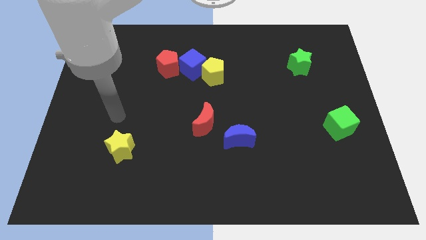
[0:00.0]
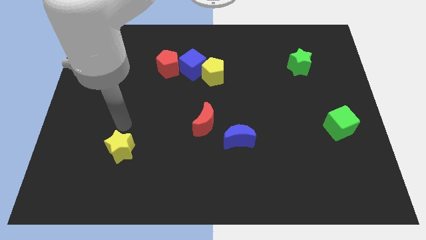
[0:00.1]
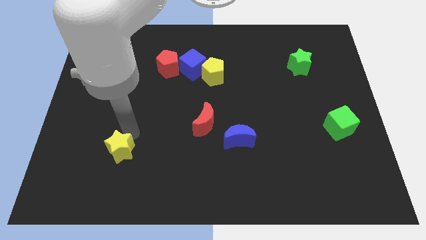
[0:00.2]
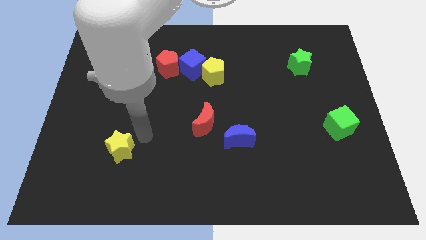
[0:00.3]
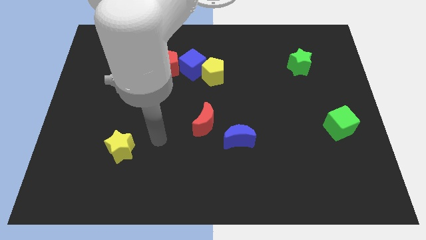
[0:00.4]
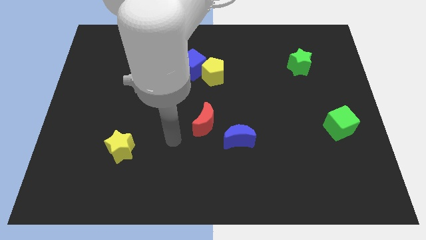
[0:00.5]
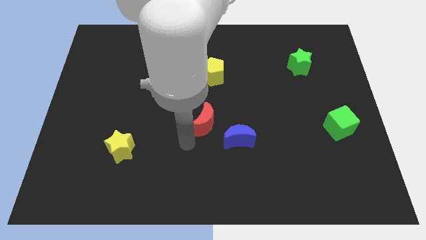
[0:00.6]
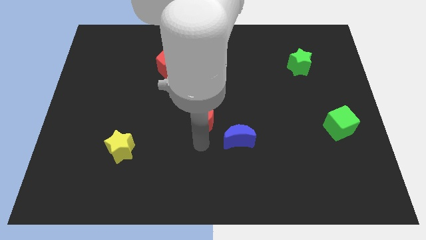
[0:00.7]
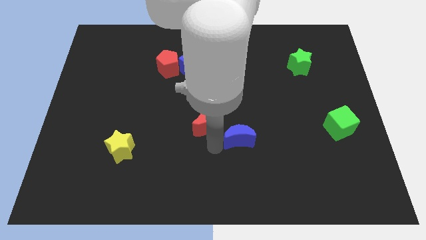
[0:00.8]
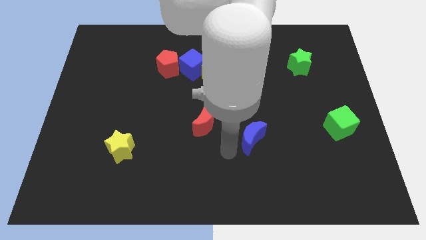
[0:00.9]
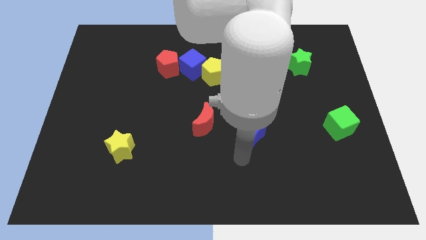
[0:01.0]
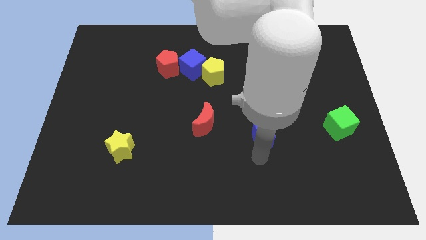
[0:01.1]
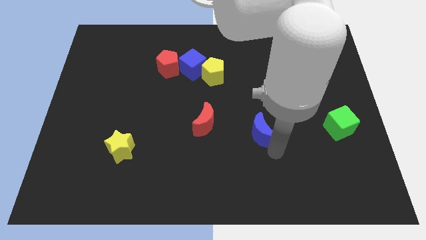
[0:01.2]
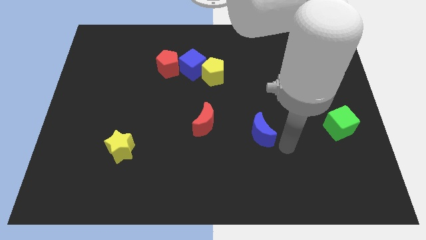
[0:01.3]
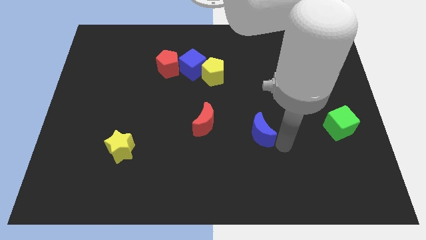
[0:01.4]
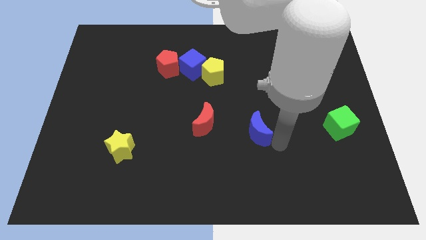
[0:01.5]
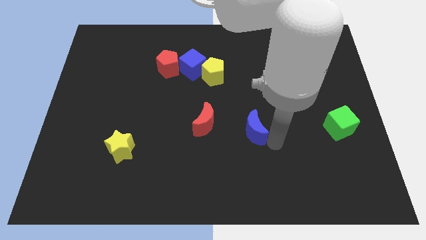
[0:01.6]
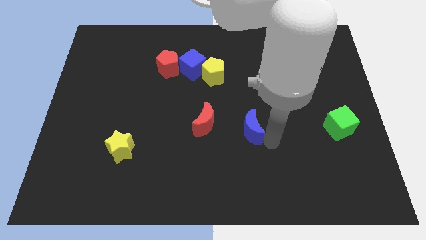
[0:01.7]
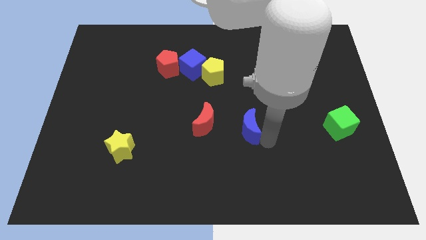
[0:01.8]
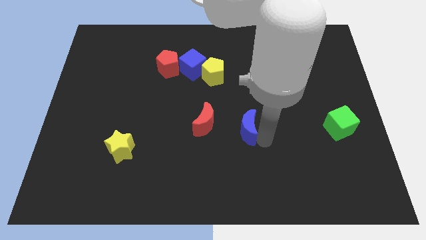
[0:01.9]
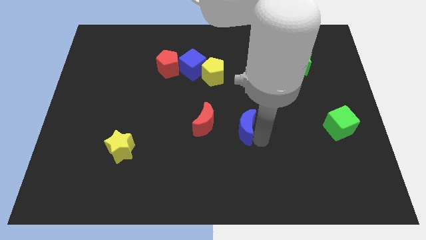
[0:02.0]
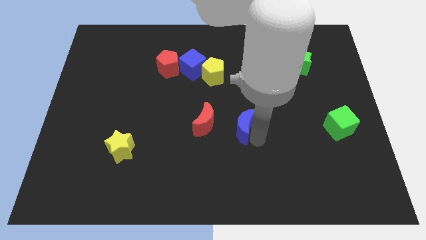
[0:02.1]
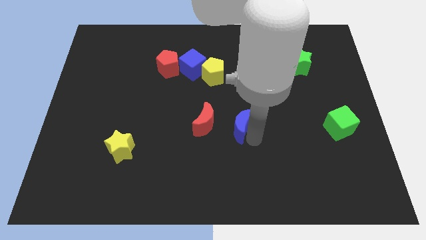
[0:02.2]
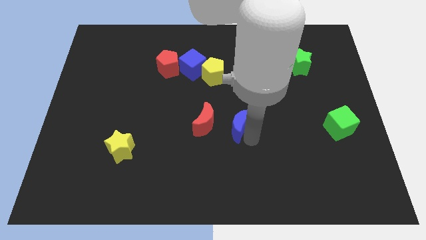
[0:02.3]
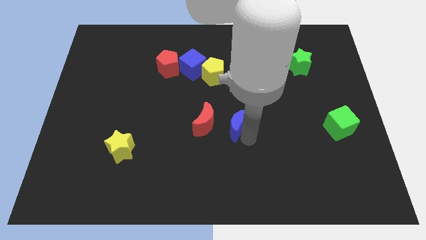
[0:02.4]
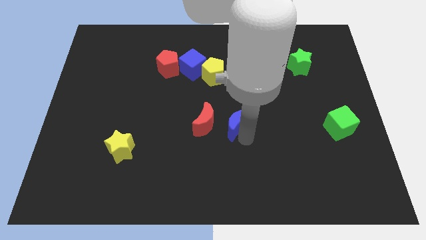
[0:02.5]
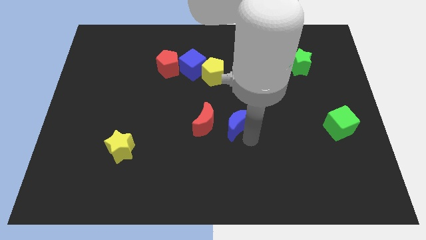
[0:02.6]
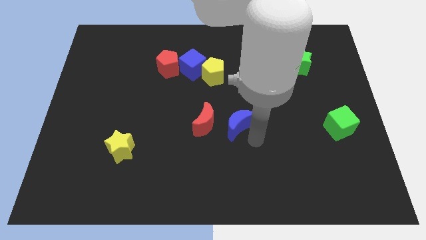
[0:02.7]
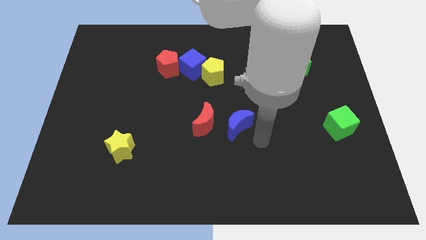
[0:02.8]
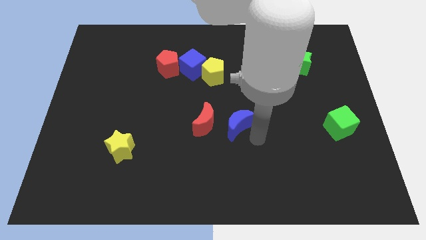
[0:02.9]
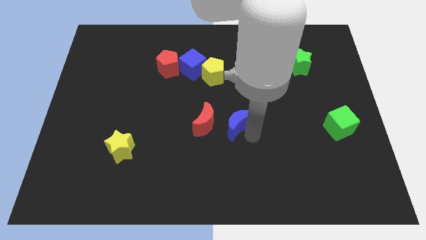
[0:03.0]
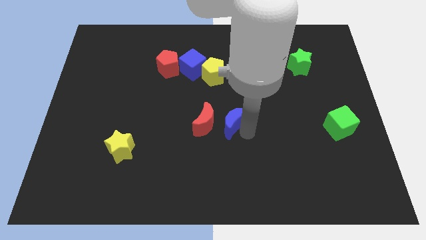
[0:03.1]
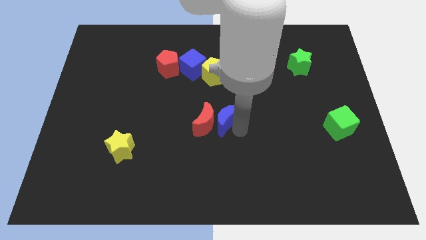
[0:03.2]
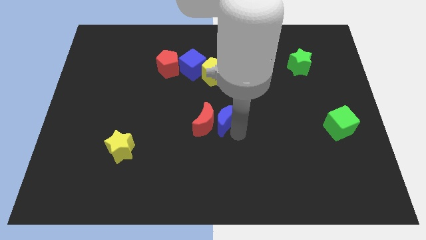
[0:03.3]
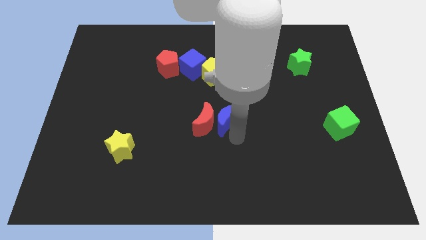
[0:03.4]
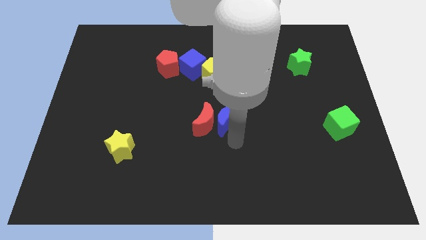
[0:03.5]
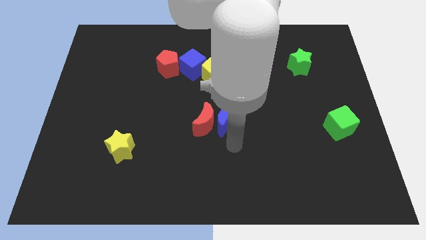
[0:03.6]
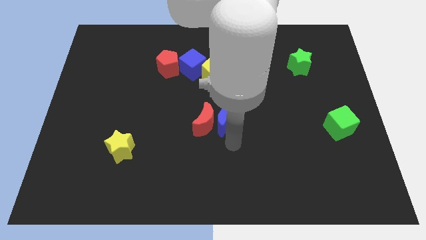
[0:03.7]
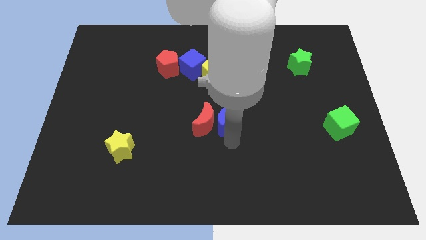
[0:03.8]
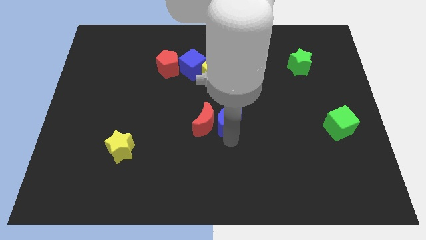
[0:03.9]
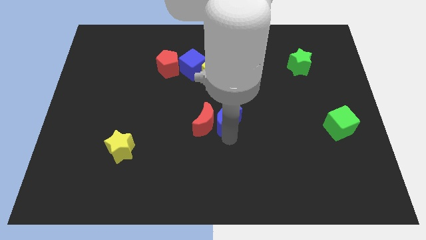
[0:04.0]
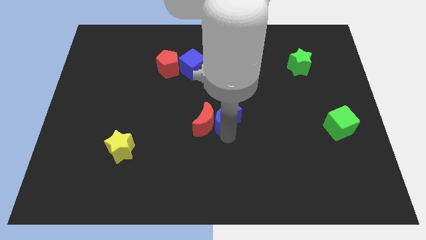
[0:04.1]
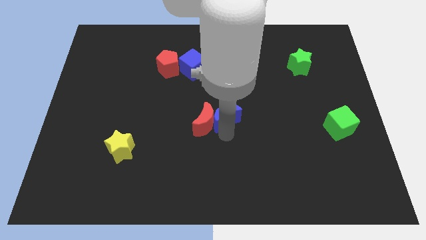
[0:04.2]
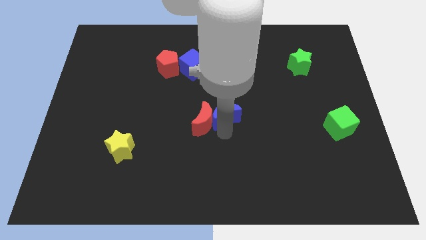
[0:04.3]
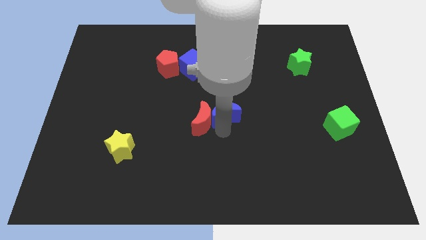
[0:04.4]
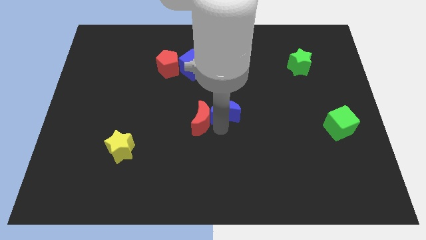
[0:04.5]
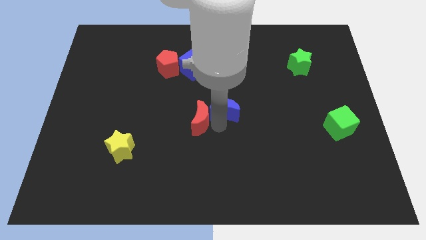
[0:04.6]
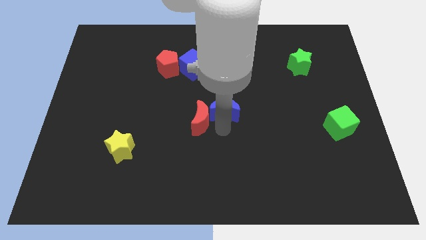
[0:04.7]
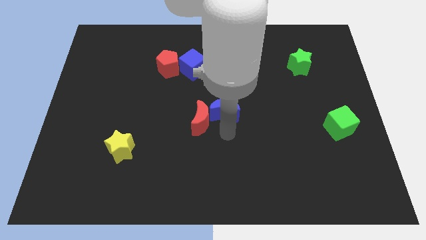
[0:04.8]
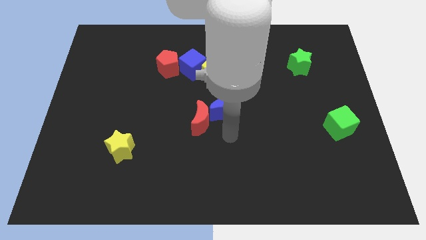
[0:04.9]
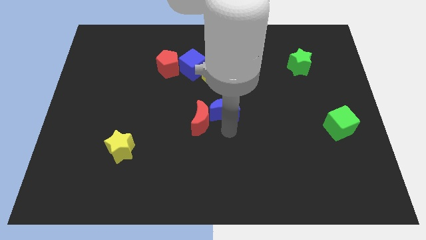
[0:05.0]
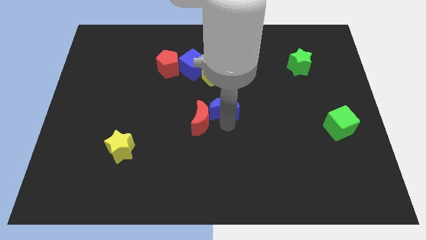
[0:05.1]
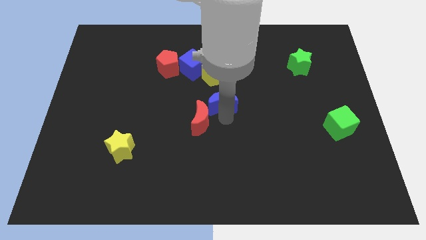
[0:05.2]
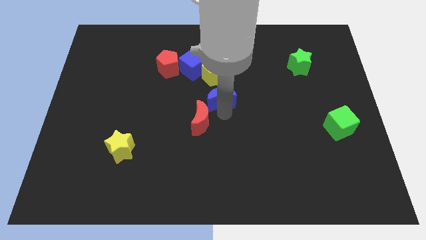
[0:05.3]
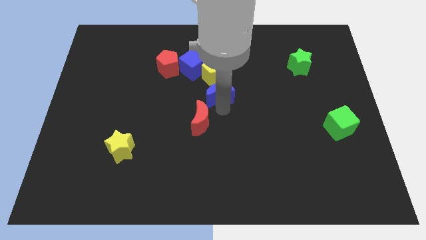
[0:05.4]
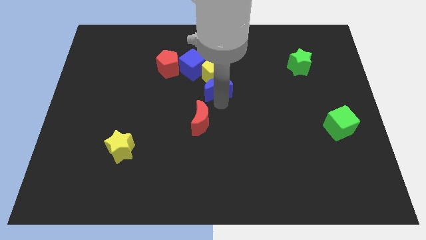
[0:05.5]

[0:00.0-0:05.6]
slide the blue moon close to the yellow pentagon

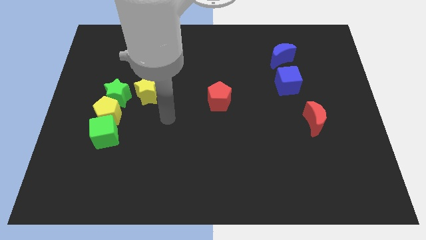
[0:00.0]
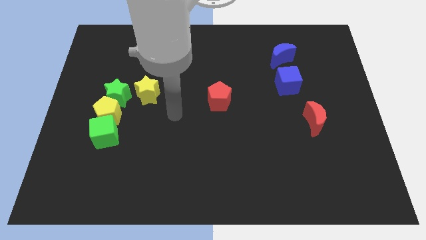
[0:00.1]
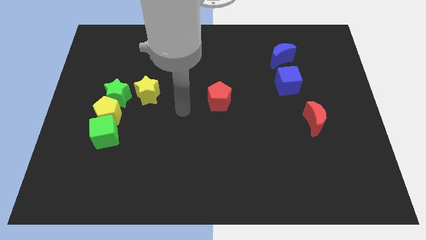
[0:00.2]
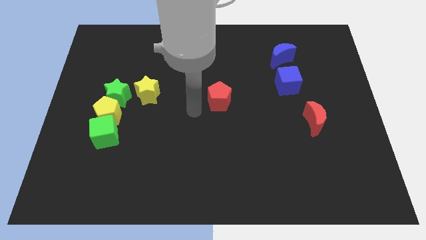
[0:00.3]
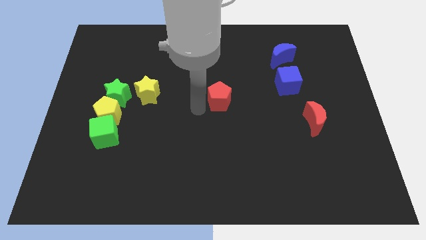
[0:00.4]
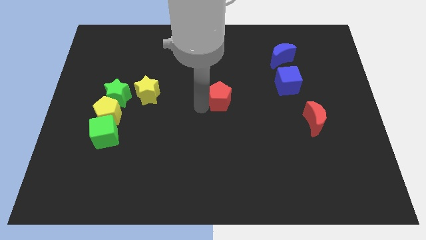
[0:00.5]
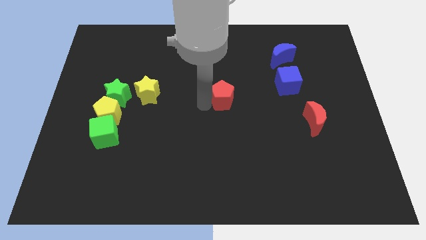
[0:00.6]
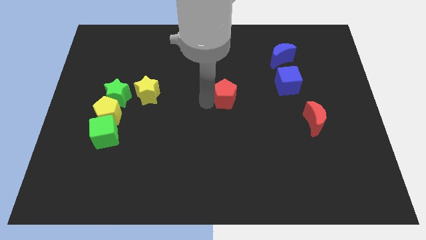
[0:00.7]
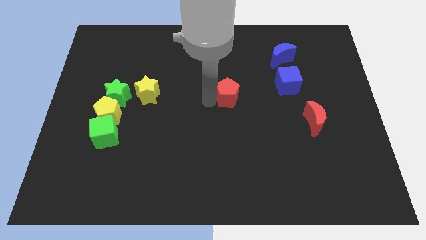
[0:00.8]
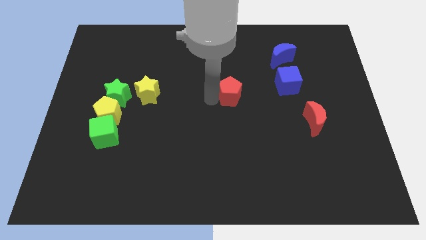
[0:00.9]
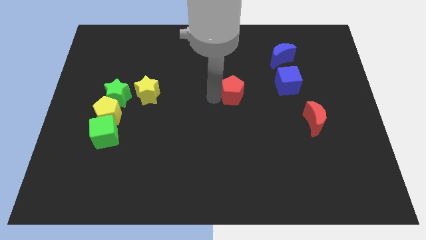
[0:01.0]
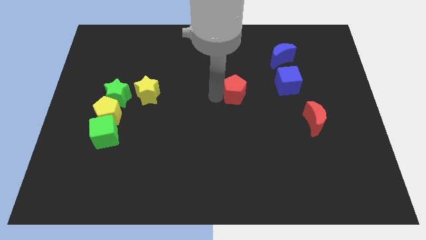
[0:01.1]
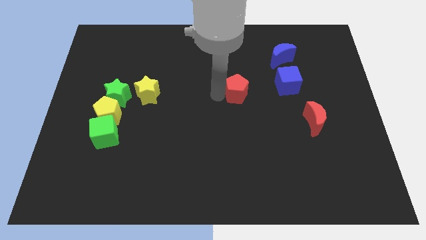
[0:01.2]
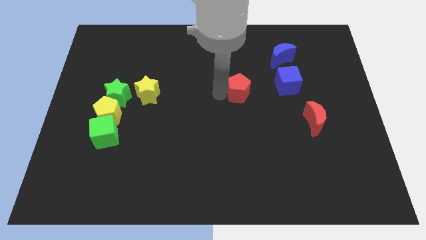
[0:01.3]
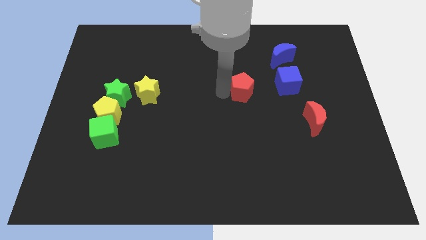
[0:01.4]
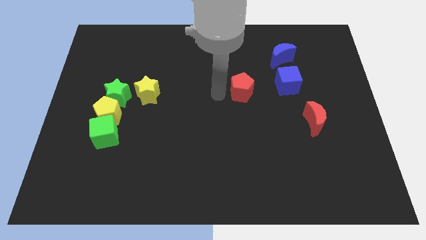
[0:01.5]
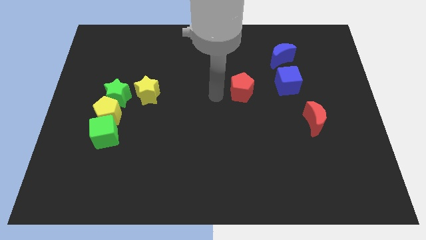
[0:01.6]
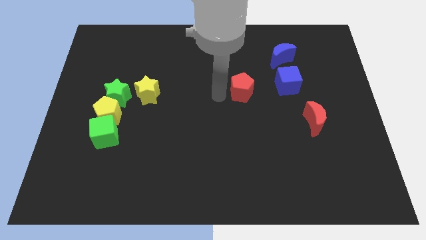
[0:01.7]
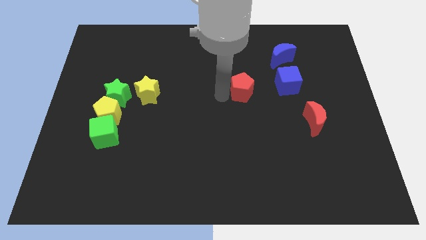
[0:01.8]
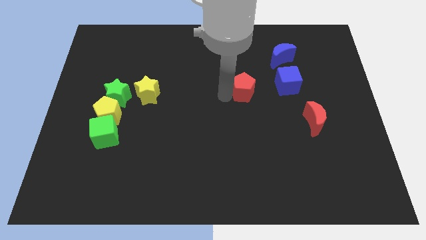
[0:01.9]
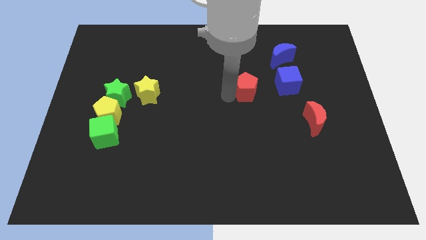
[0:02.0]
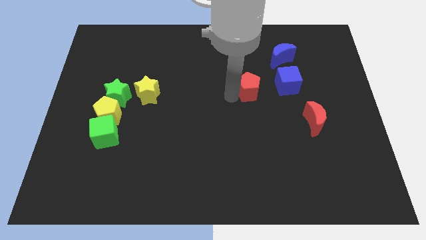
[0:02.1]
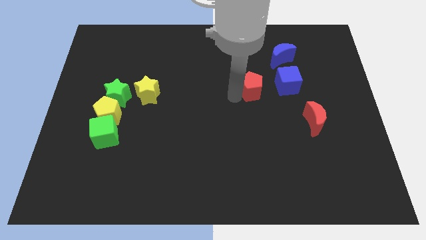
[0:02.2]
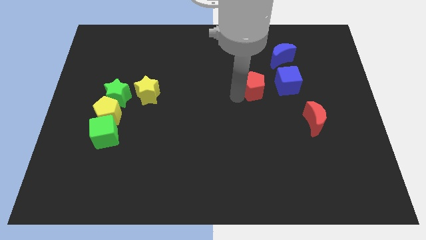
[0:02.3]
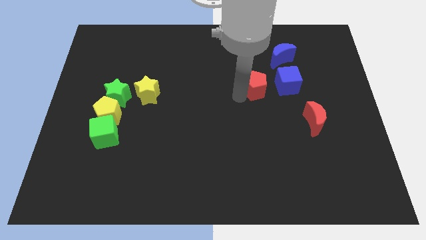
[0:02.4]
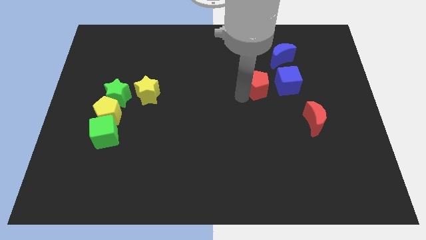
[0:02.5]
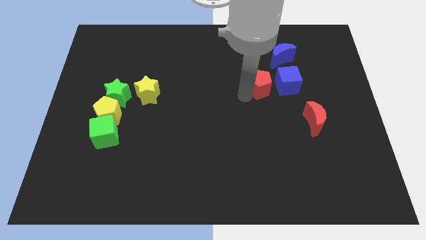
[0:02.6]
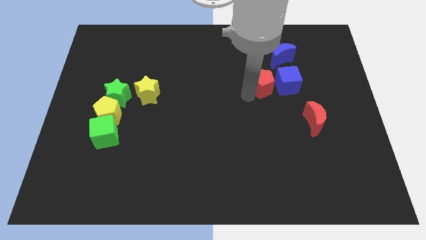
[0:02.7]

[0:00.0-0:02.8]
put the red pentagon to the blue cube
